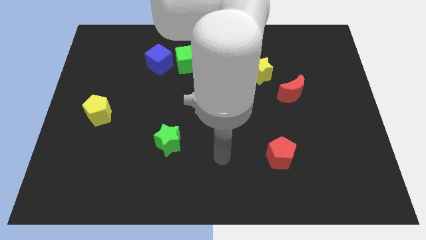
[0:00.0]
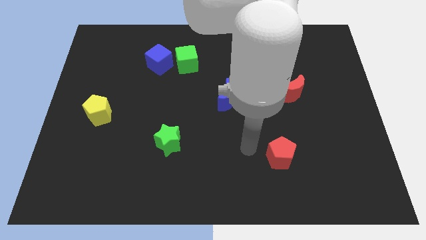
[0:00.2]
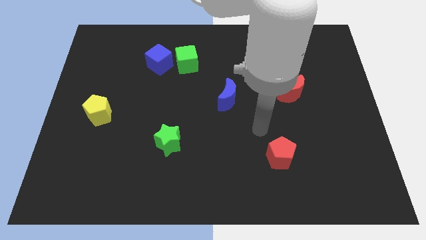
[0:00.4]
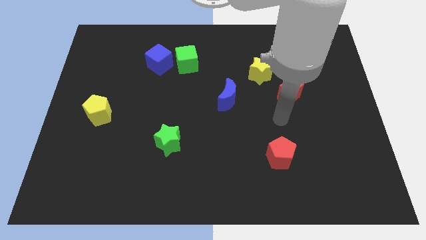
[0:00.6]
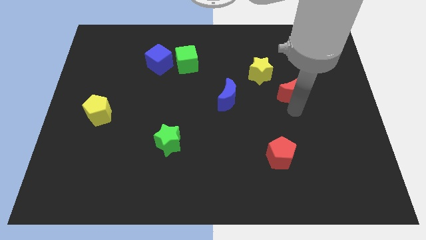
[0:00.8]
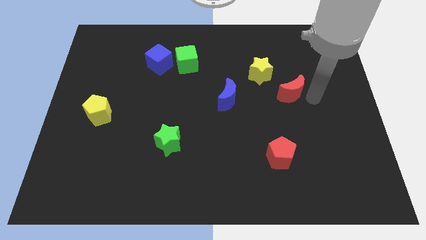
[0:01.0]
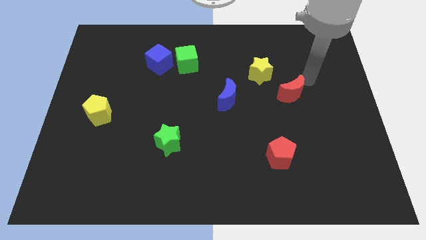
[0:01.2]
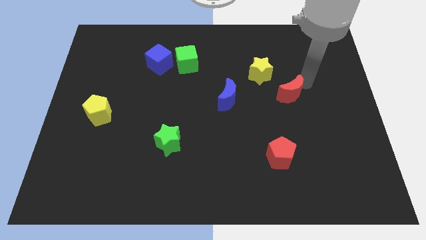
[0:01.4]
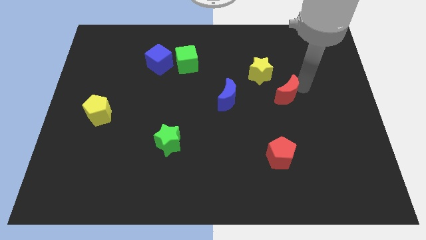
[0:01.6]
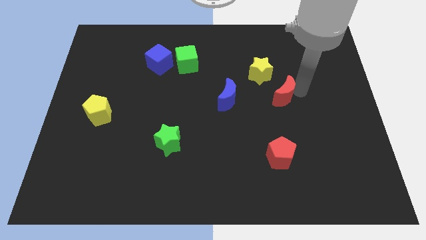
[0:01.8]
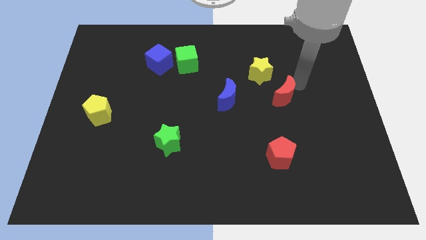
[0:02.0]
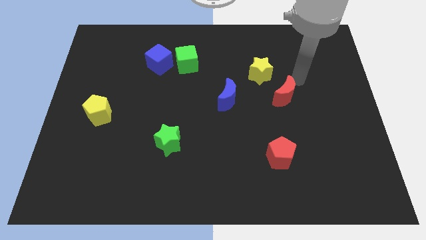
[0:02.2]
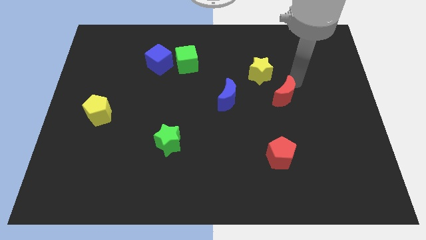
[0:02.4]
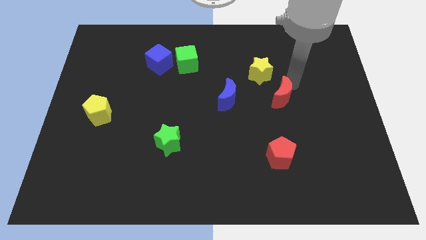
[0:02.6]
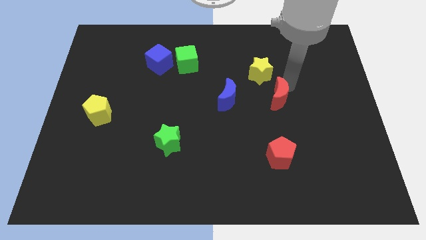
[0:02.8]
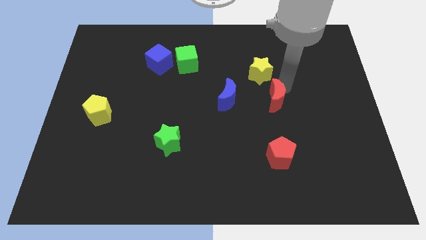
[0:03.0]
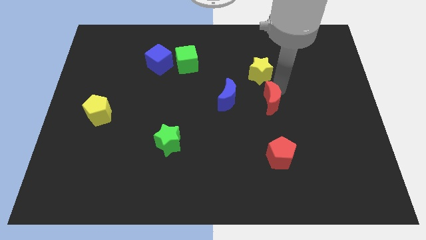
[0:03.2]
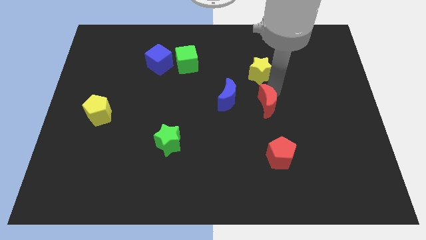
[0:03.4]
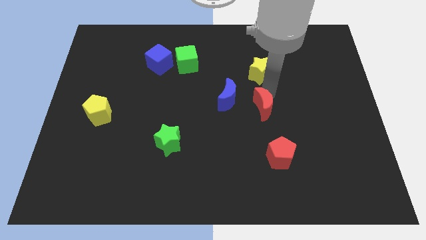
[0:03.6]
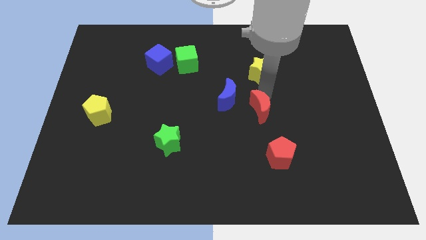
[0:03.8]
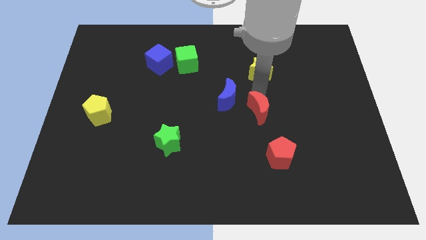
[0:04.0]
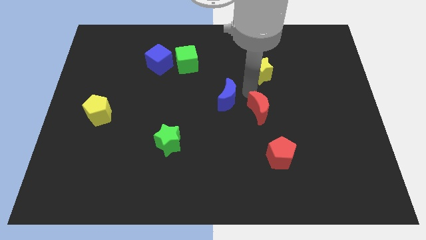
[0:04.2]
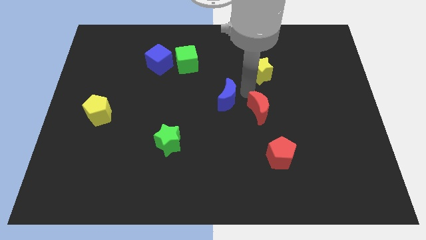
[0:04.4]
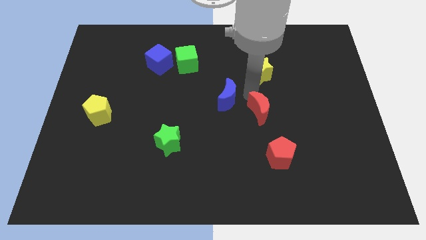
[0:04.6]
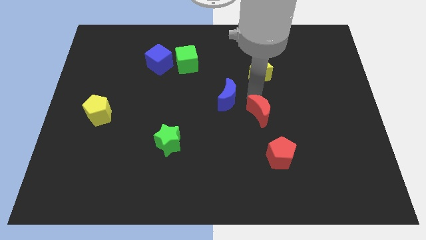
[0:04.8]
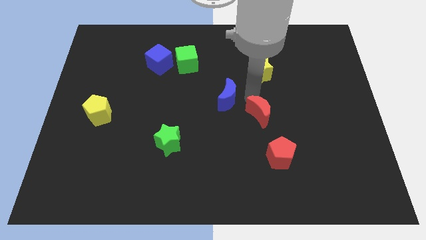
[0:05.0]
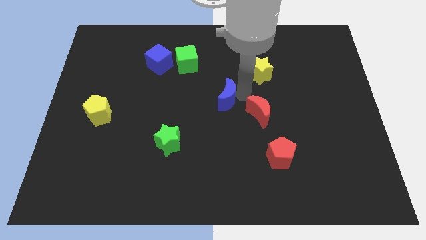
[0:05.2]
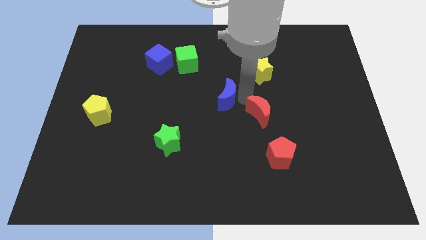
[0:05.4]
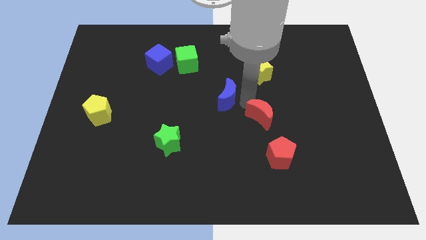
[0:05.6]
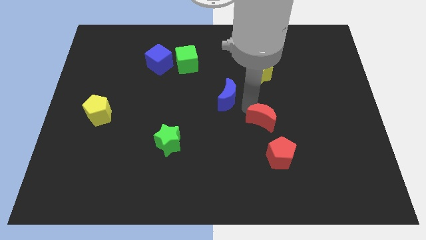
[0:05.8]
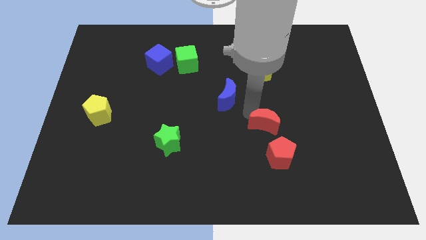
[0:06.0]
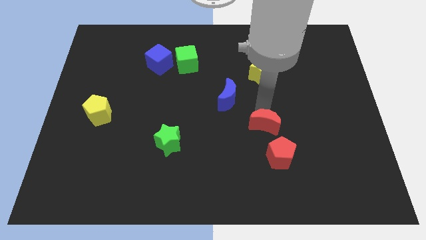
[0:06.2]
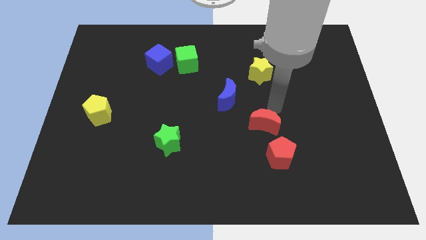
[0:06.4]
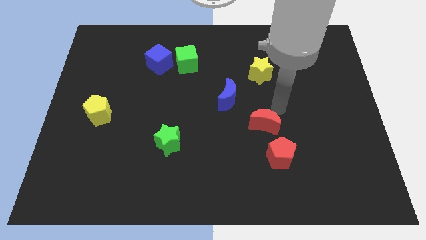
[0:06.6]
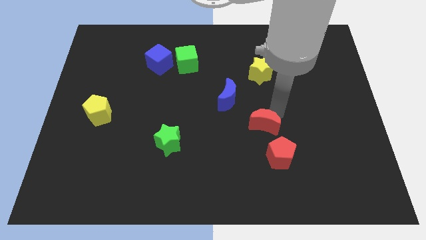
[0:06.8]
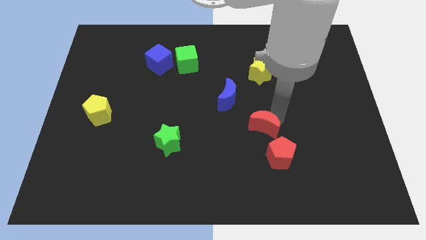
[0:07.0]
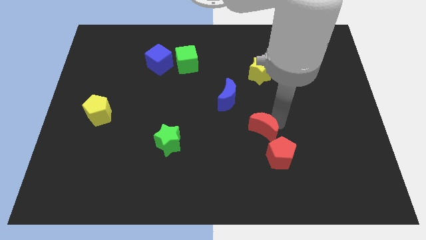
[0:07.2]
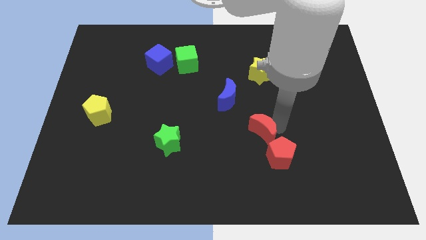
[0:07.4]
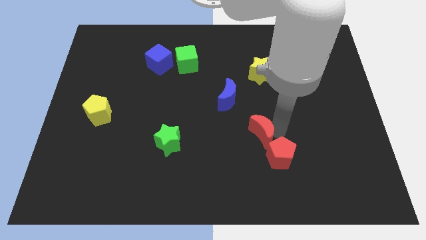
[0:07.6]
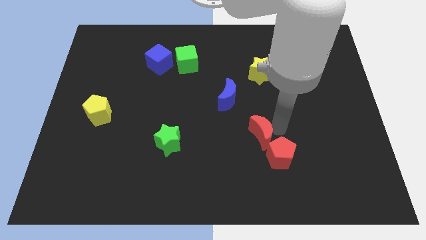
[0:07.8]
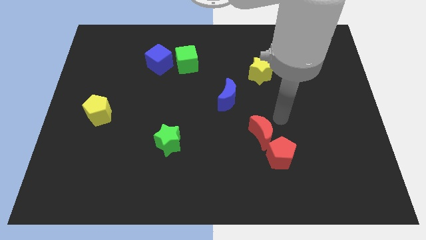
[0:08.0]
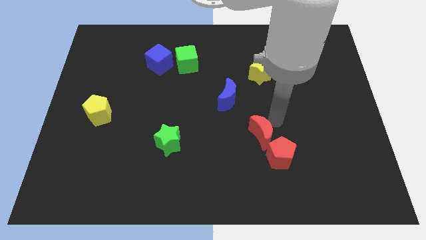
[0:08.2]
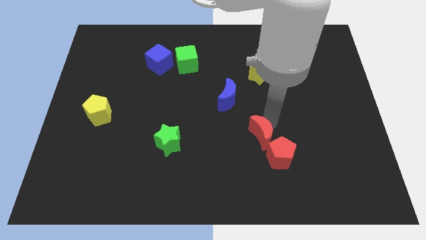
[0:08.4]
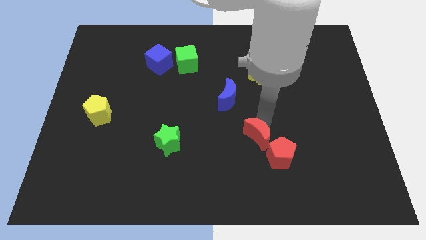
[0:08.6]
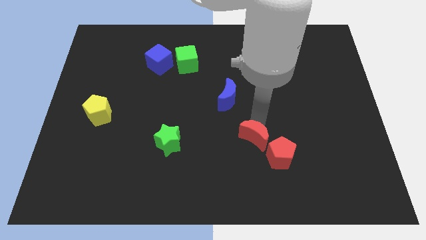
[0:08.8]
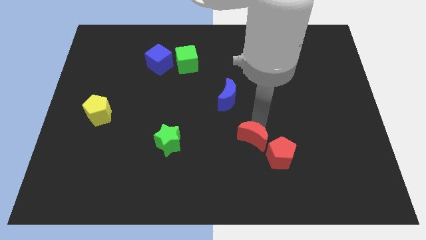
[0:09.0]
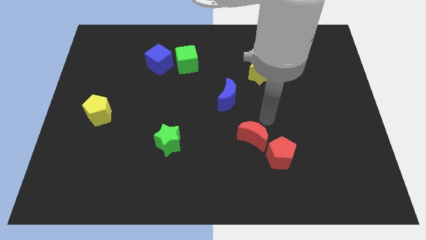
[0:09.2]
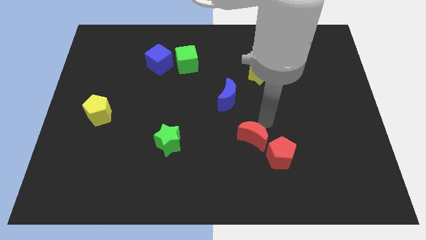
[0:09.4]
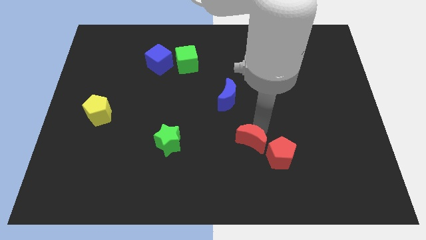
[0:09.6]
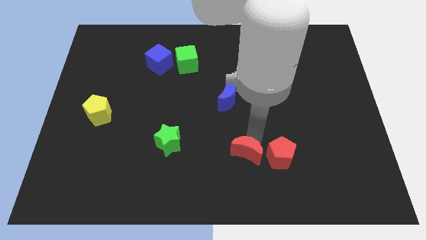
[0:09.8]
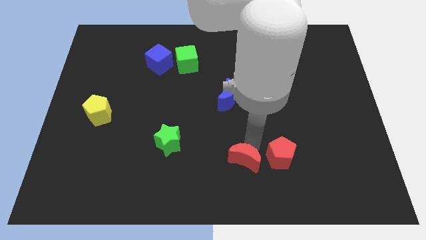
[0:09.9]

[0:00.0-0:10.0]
put the red moon to the bottom side

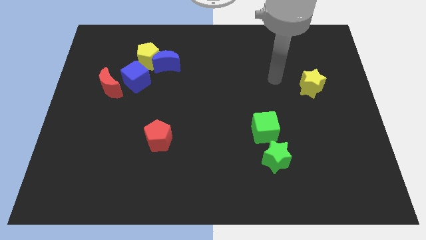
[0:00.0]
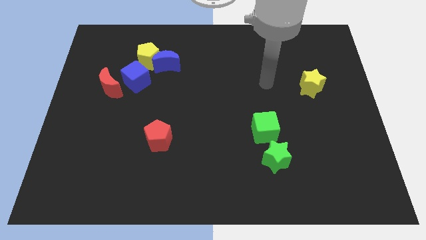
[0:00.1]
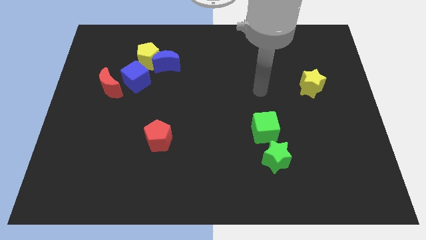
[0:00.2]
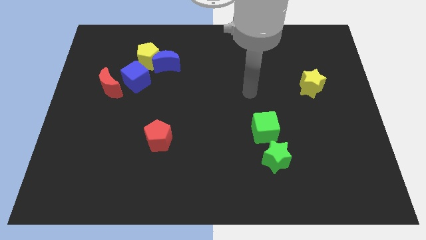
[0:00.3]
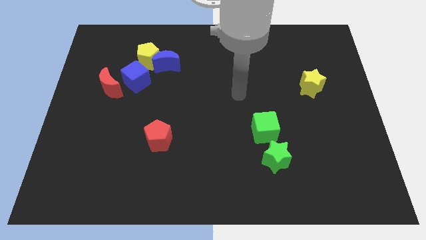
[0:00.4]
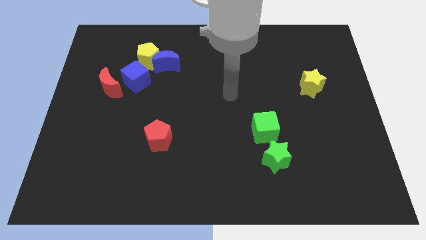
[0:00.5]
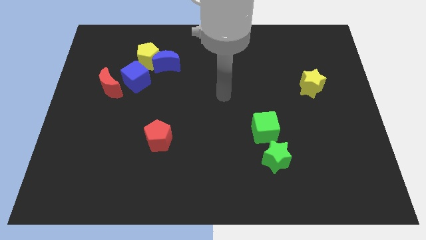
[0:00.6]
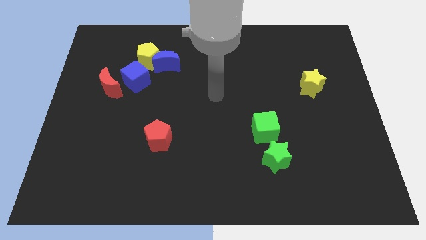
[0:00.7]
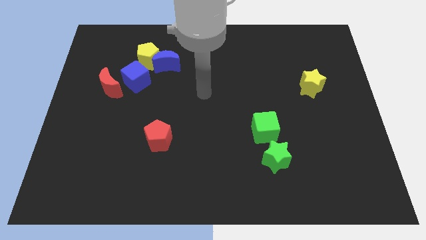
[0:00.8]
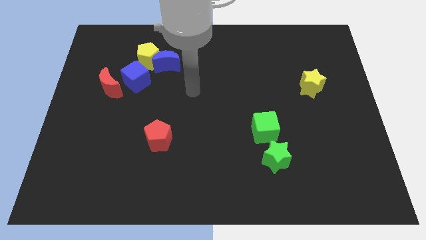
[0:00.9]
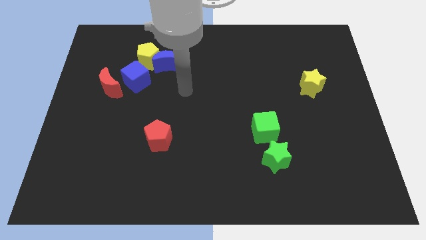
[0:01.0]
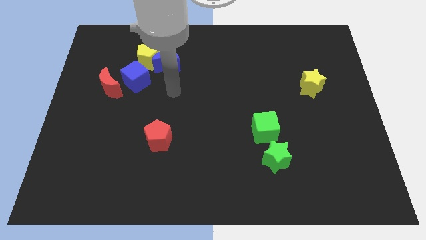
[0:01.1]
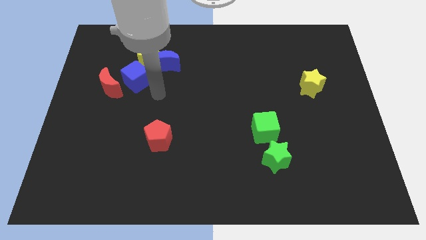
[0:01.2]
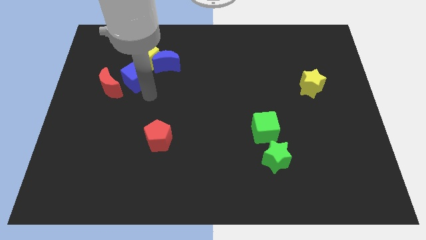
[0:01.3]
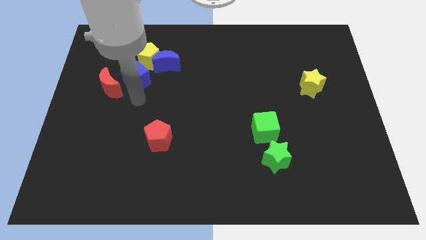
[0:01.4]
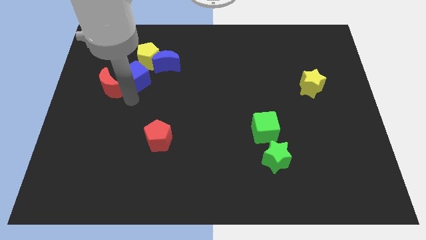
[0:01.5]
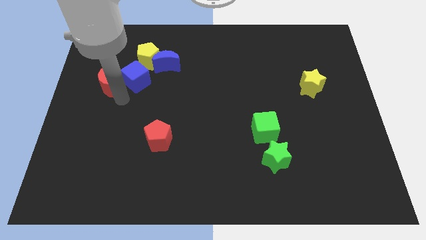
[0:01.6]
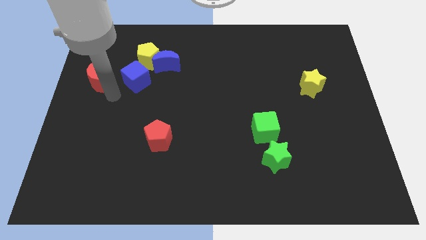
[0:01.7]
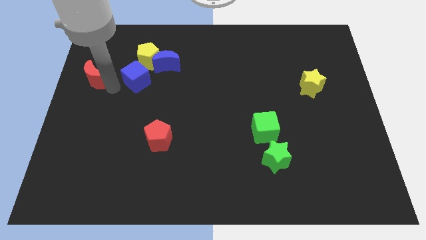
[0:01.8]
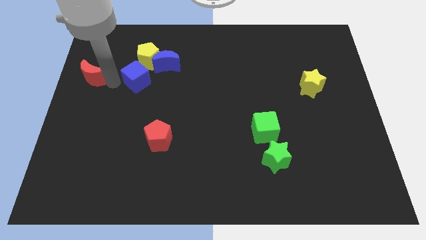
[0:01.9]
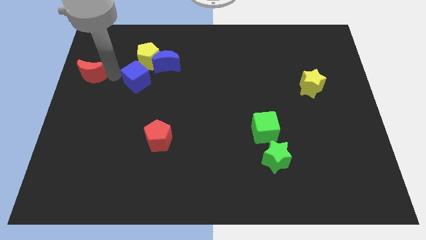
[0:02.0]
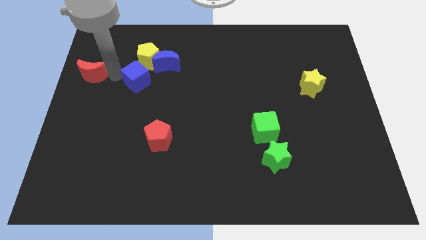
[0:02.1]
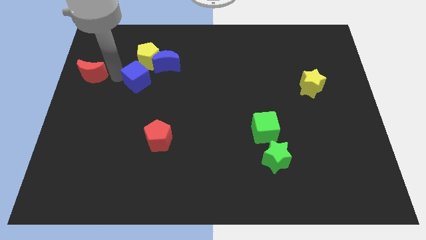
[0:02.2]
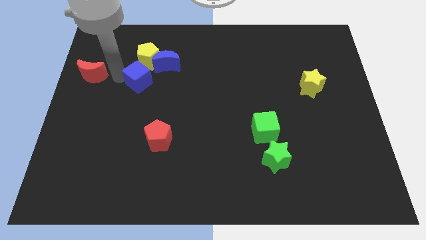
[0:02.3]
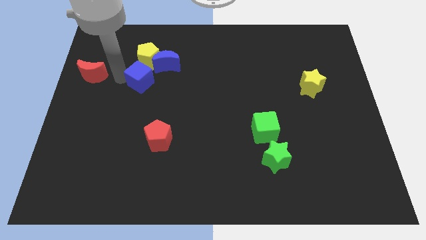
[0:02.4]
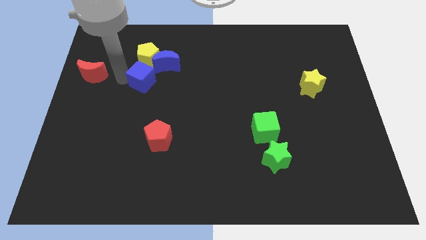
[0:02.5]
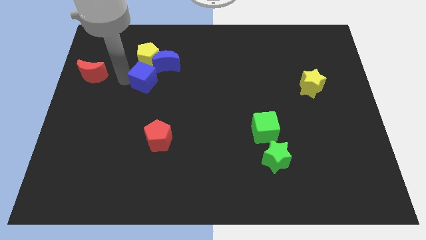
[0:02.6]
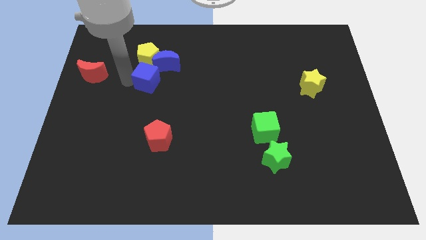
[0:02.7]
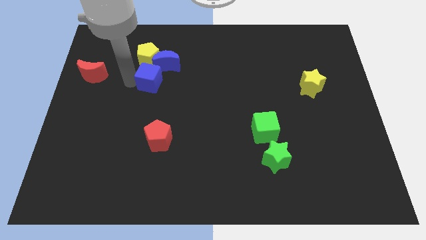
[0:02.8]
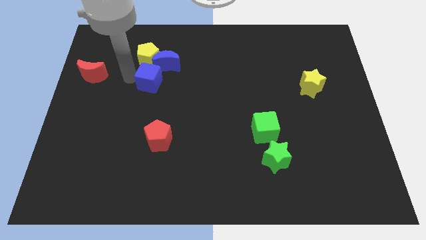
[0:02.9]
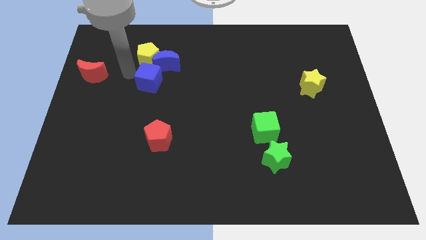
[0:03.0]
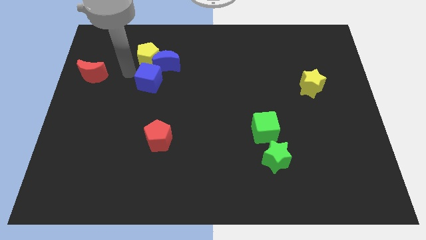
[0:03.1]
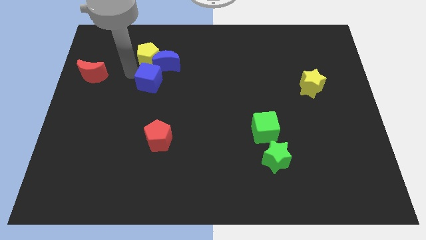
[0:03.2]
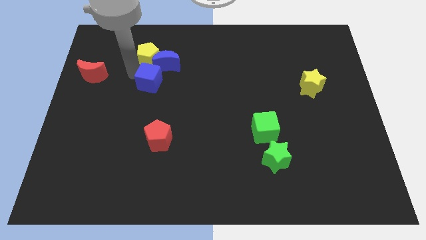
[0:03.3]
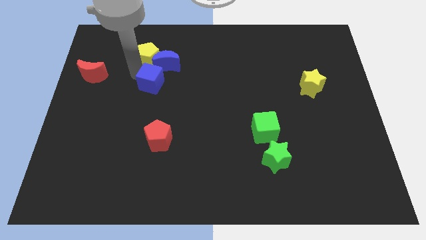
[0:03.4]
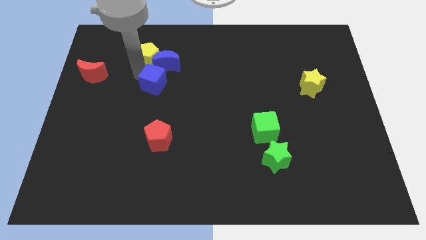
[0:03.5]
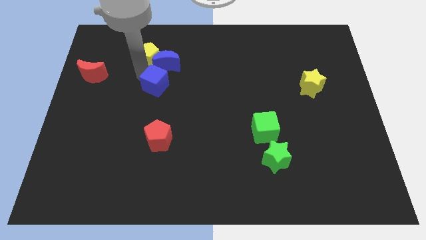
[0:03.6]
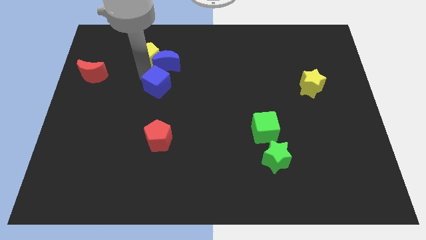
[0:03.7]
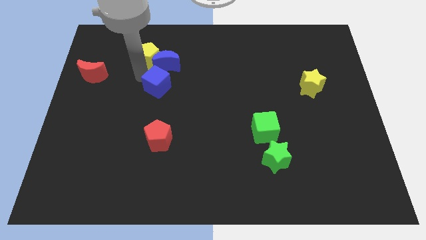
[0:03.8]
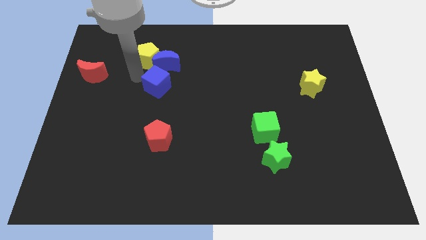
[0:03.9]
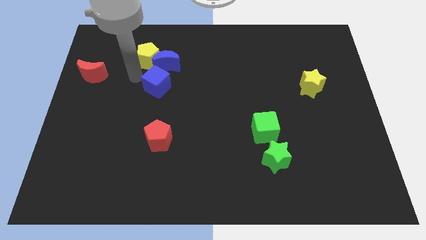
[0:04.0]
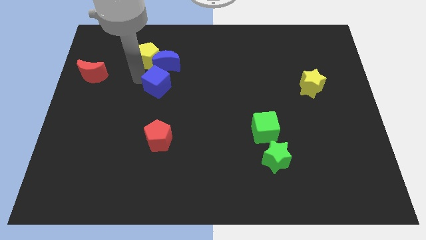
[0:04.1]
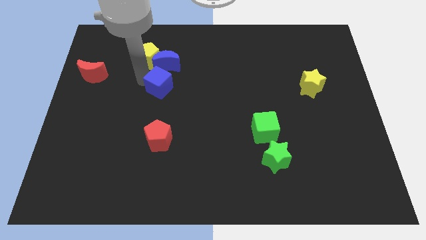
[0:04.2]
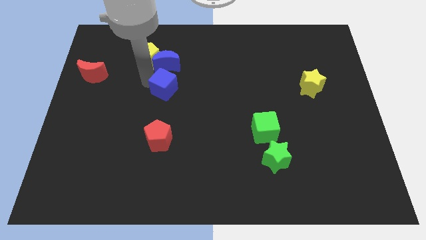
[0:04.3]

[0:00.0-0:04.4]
put the blue cube to the middle
